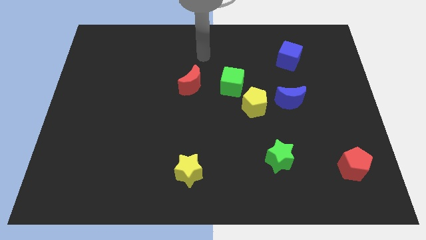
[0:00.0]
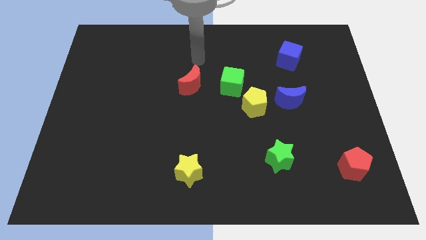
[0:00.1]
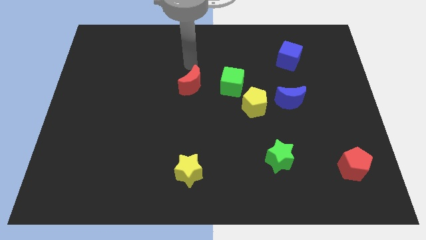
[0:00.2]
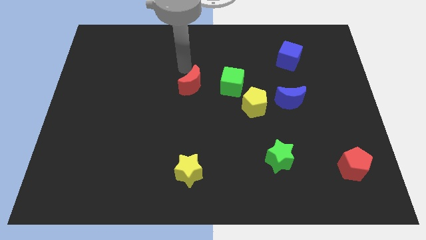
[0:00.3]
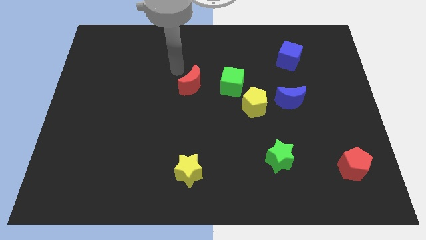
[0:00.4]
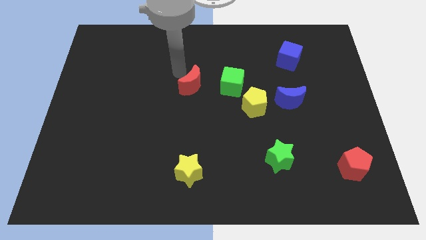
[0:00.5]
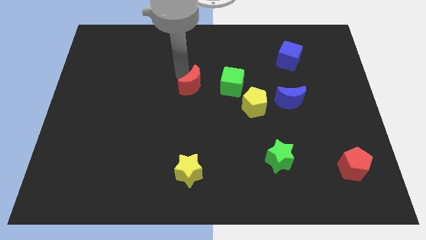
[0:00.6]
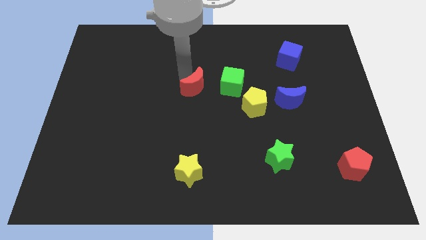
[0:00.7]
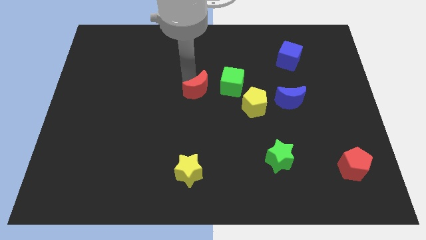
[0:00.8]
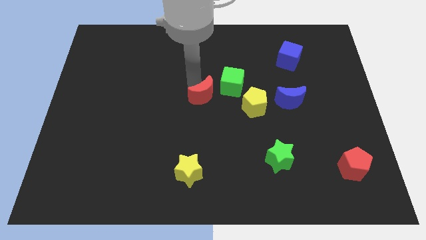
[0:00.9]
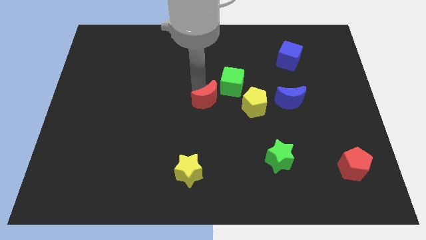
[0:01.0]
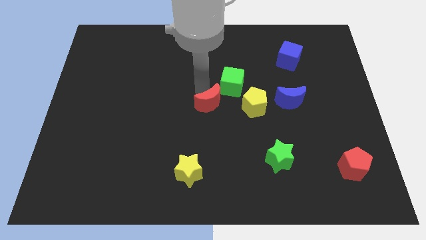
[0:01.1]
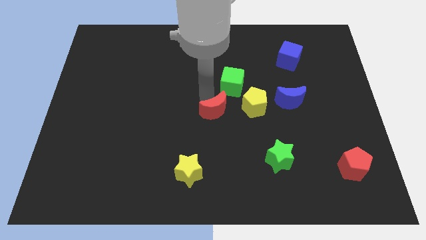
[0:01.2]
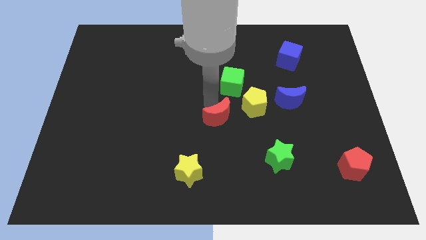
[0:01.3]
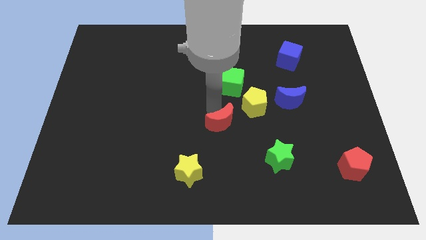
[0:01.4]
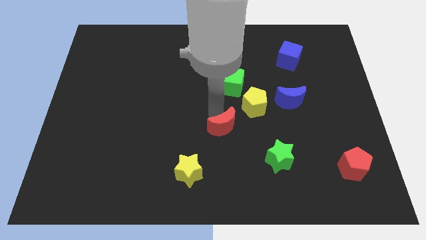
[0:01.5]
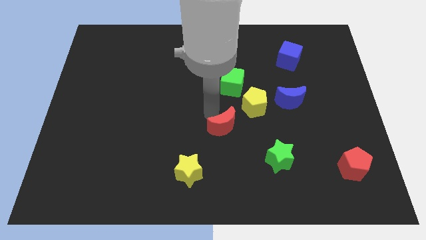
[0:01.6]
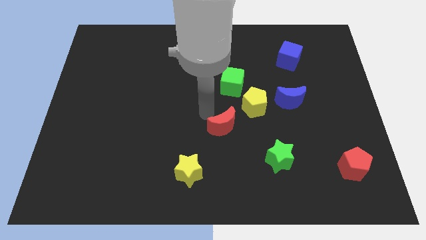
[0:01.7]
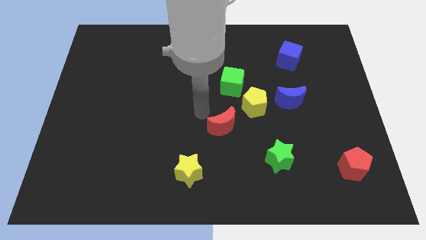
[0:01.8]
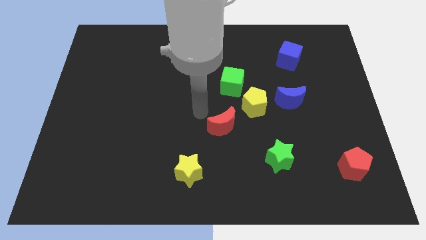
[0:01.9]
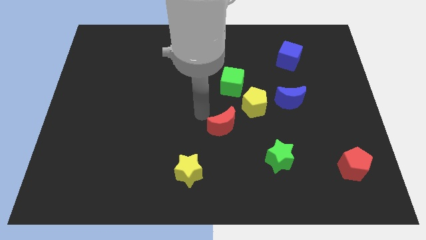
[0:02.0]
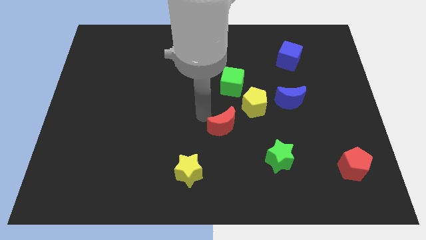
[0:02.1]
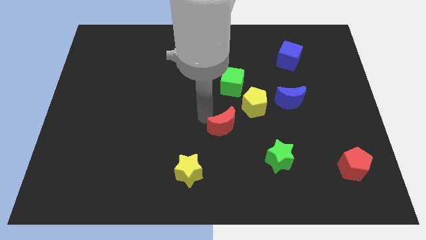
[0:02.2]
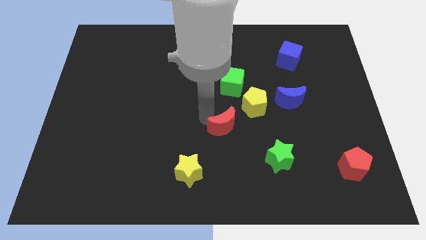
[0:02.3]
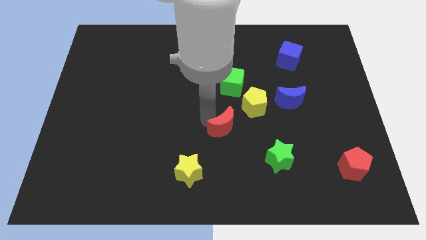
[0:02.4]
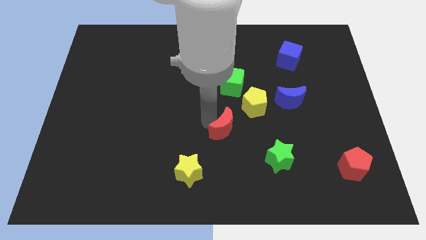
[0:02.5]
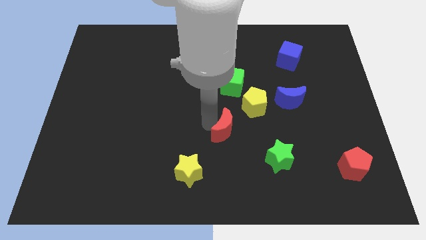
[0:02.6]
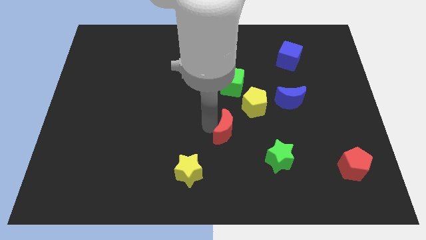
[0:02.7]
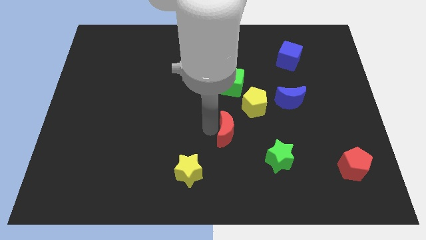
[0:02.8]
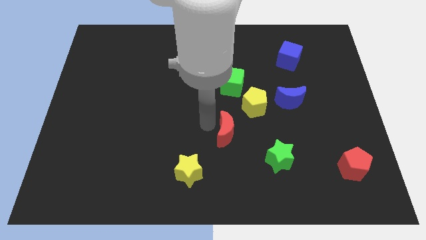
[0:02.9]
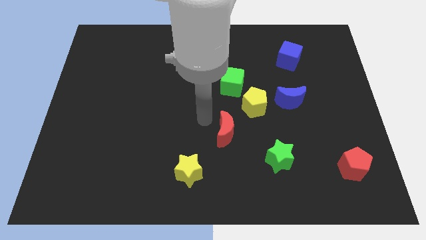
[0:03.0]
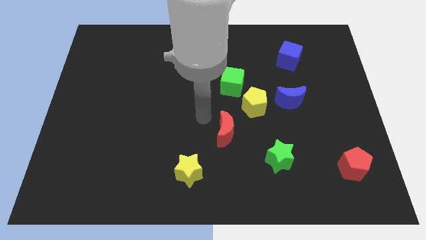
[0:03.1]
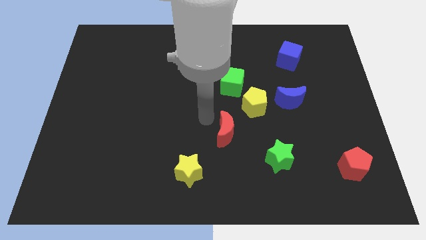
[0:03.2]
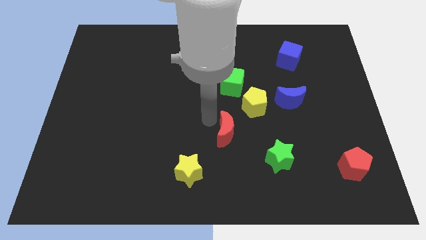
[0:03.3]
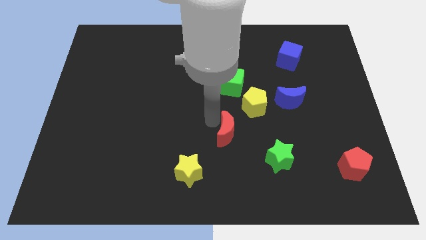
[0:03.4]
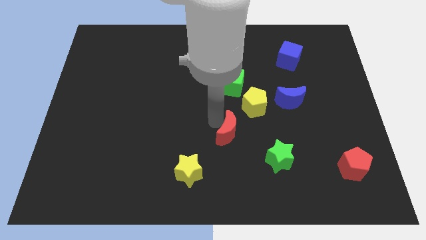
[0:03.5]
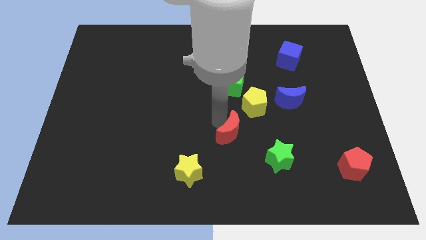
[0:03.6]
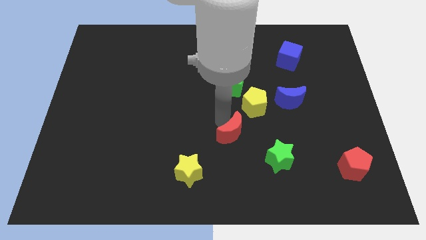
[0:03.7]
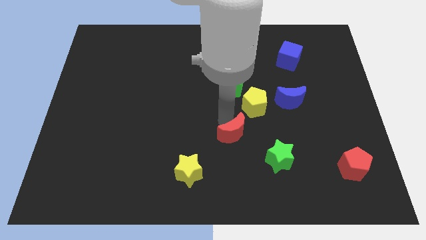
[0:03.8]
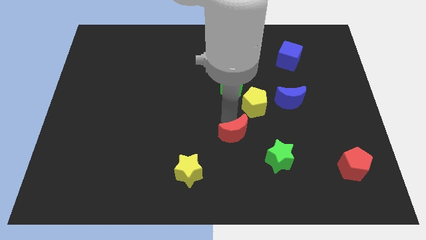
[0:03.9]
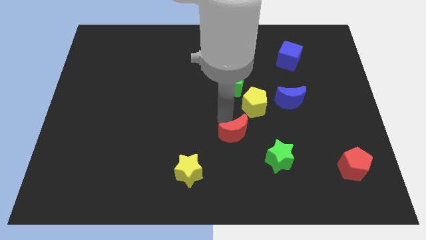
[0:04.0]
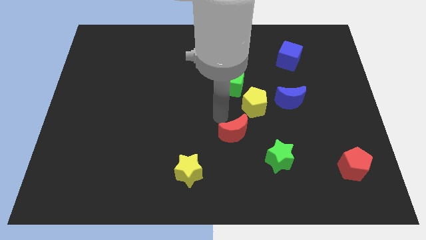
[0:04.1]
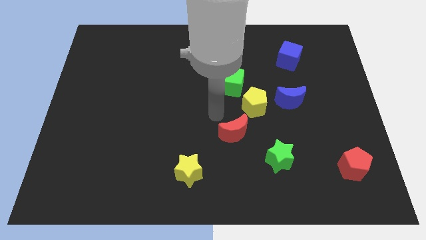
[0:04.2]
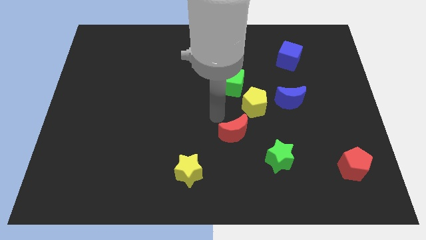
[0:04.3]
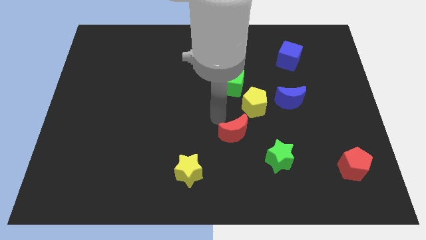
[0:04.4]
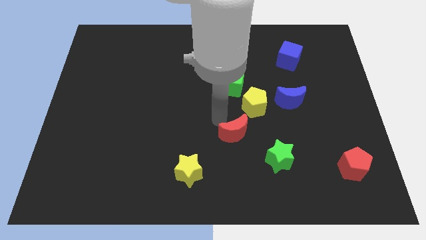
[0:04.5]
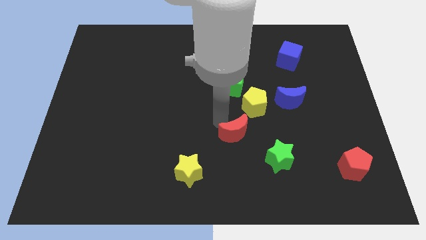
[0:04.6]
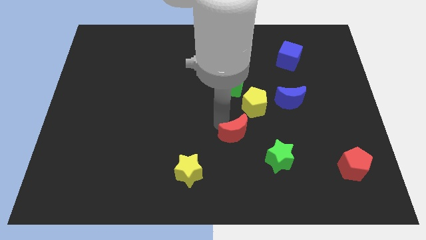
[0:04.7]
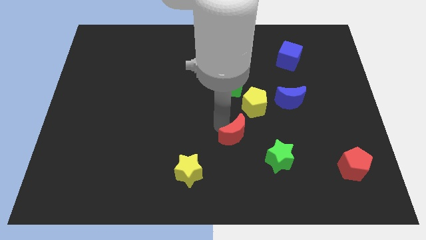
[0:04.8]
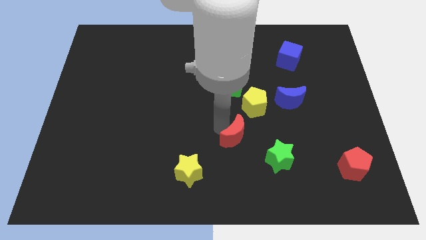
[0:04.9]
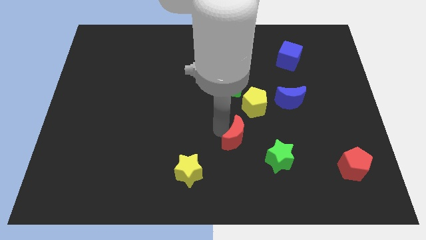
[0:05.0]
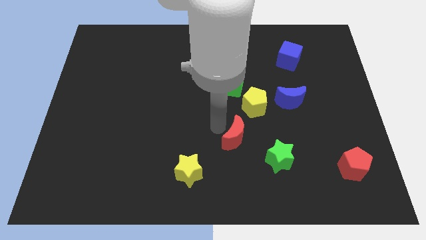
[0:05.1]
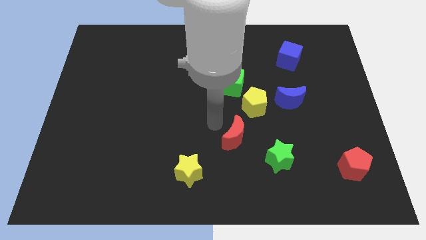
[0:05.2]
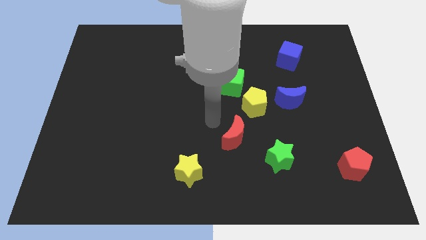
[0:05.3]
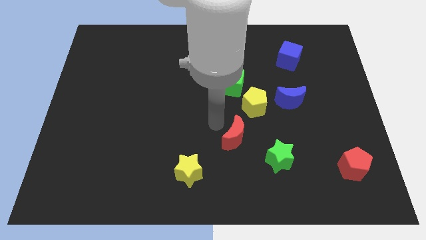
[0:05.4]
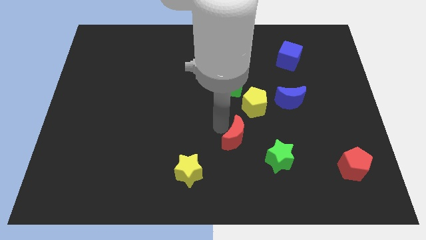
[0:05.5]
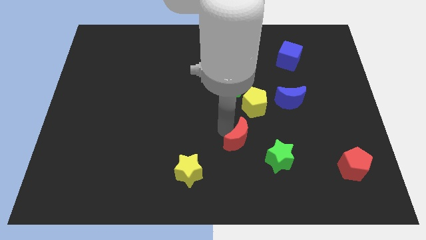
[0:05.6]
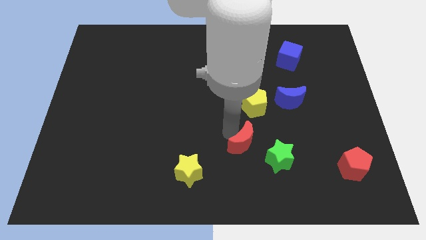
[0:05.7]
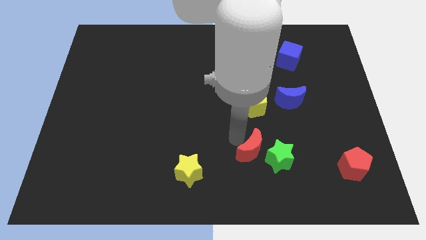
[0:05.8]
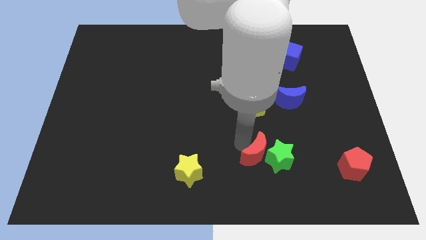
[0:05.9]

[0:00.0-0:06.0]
push the red moon next to the green star

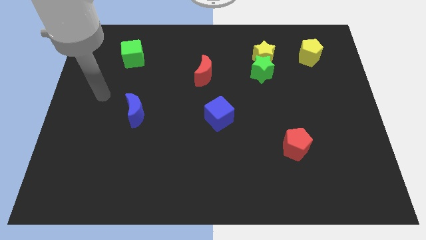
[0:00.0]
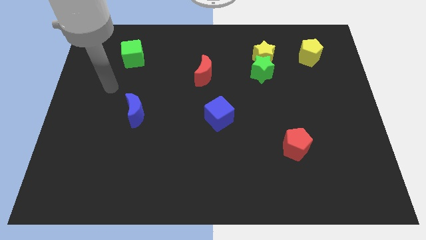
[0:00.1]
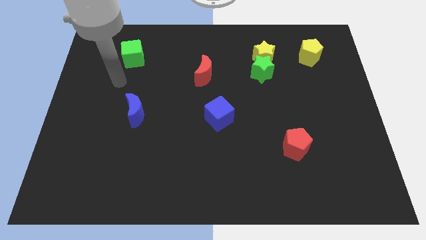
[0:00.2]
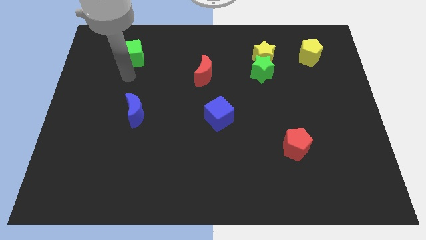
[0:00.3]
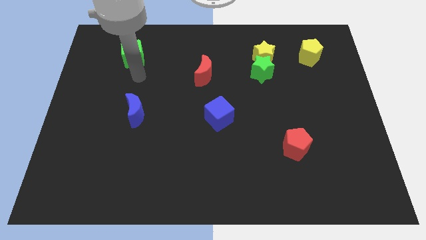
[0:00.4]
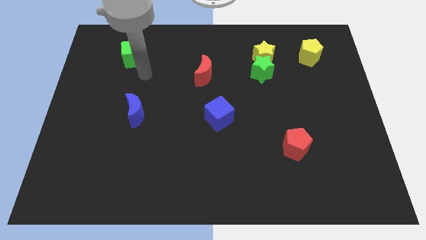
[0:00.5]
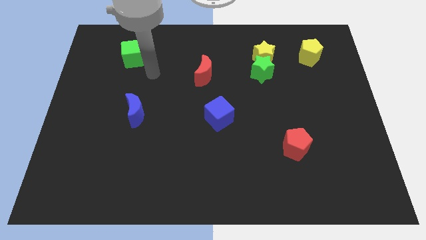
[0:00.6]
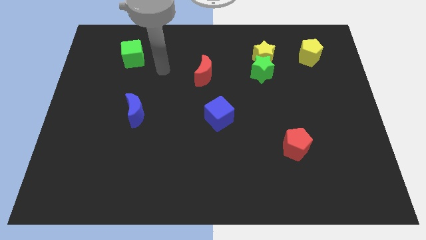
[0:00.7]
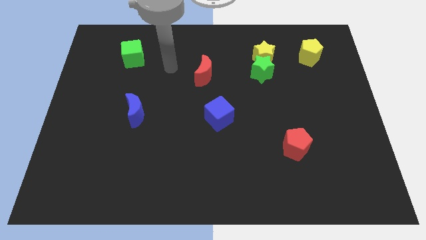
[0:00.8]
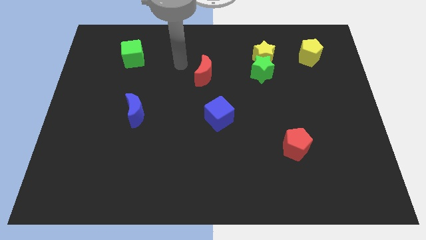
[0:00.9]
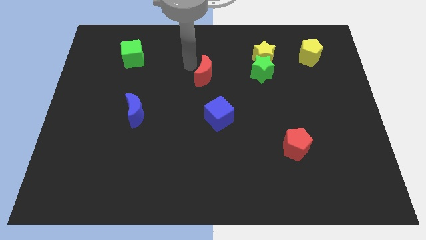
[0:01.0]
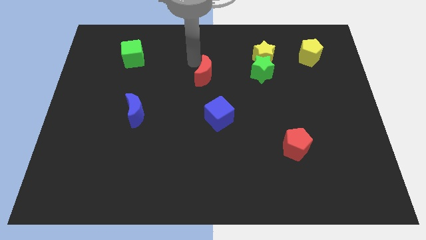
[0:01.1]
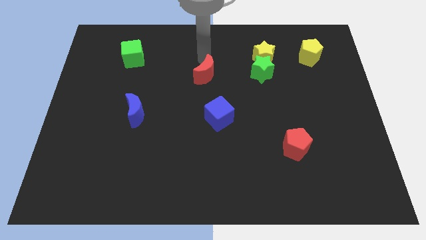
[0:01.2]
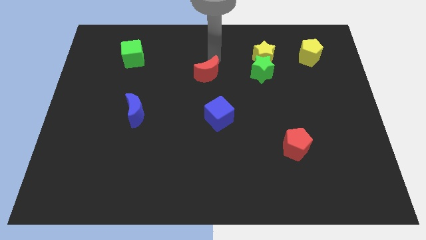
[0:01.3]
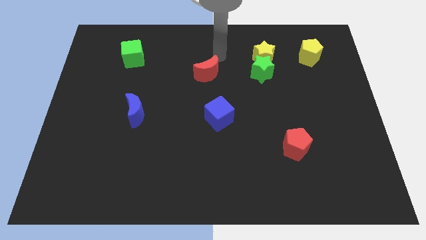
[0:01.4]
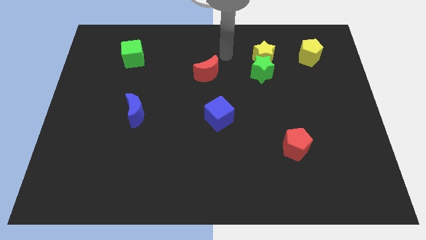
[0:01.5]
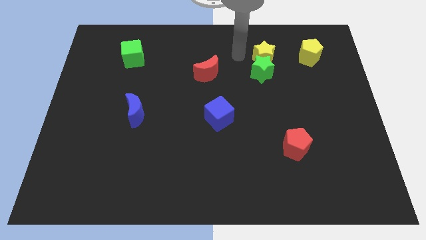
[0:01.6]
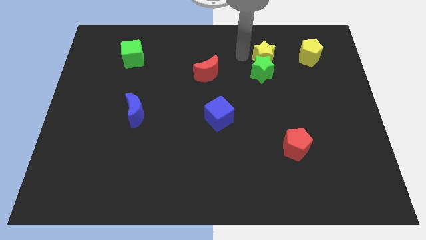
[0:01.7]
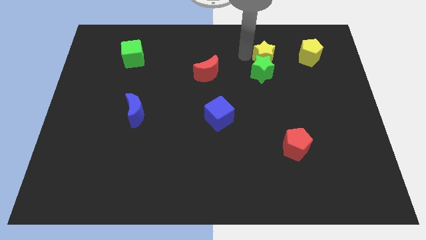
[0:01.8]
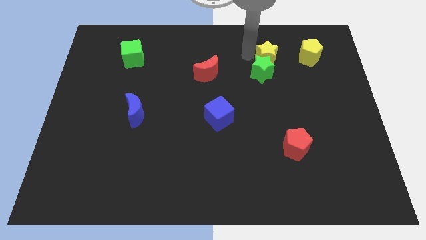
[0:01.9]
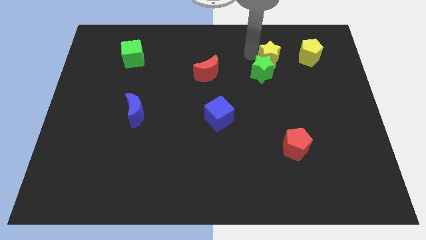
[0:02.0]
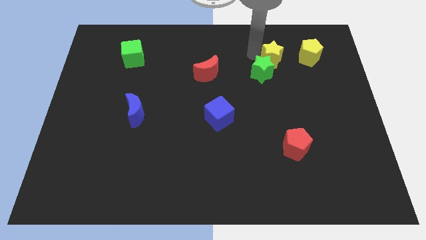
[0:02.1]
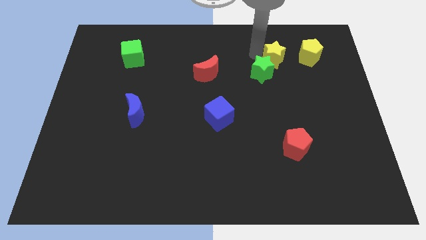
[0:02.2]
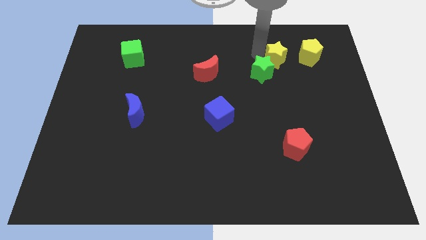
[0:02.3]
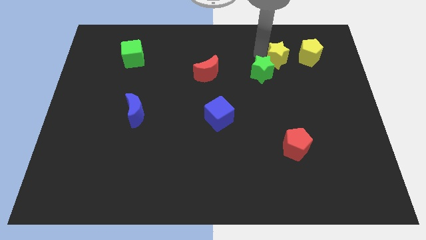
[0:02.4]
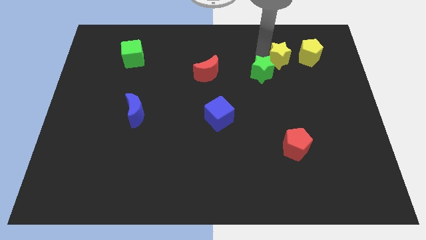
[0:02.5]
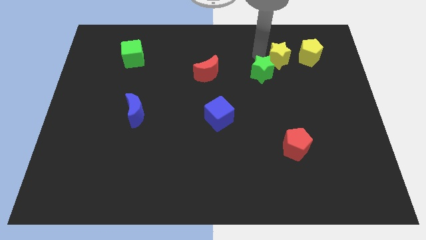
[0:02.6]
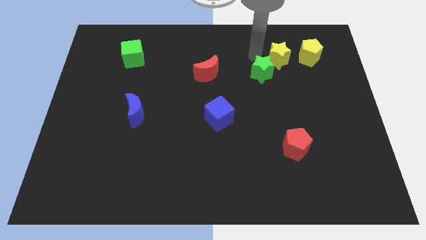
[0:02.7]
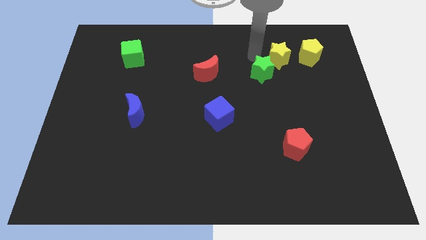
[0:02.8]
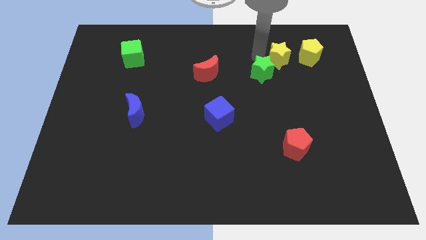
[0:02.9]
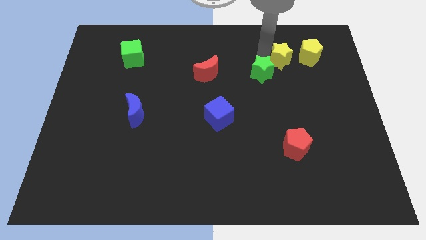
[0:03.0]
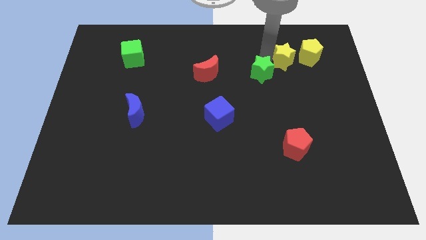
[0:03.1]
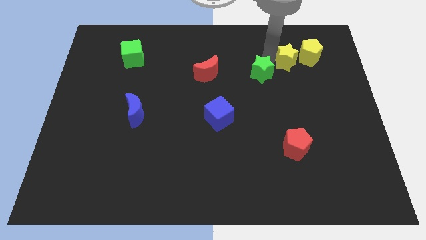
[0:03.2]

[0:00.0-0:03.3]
push the yellow star towards the yellow pentagon
